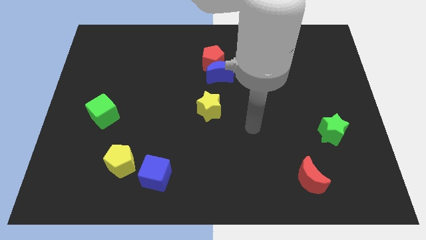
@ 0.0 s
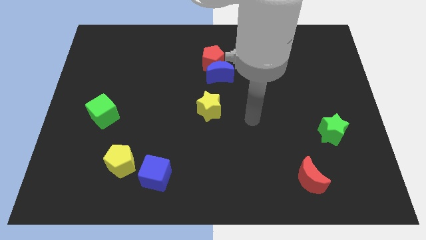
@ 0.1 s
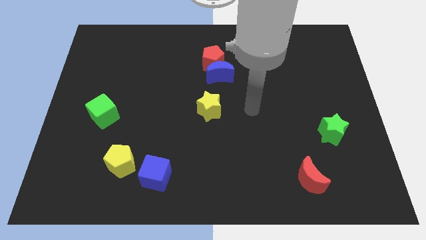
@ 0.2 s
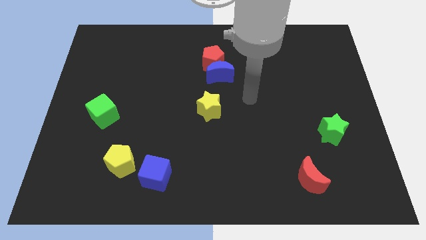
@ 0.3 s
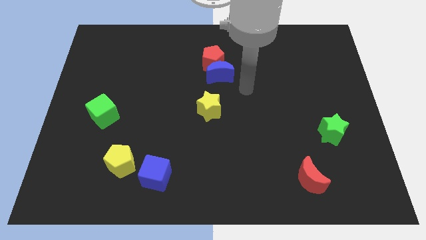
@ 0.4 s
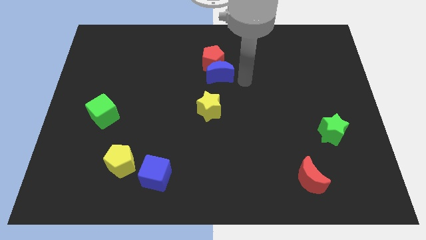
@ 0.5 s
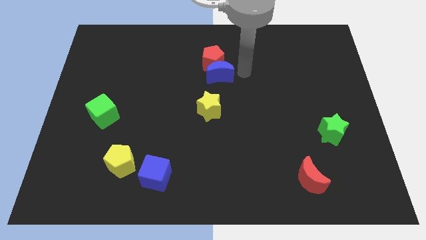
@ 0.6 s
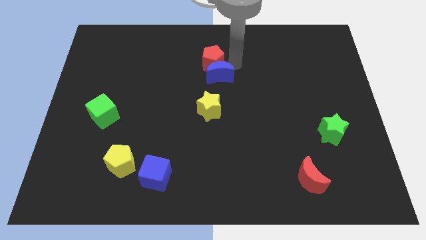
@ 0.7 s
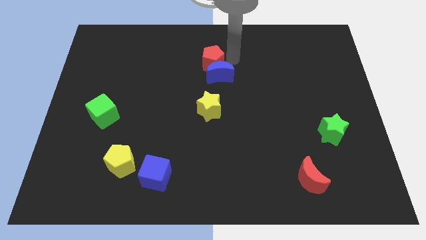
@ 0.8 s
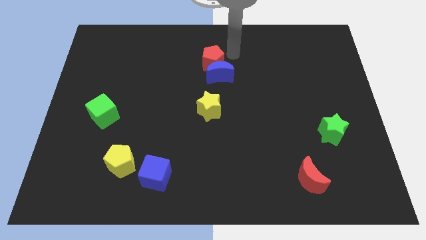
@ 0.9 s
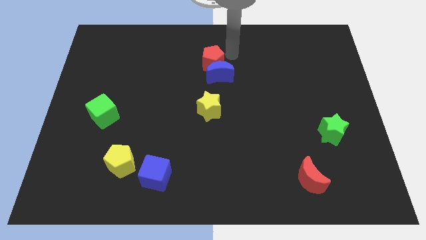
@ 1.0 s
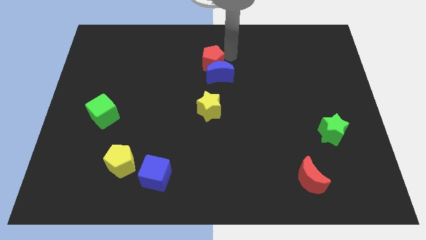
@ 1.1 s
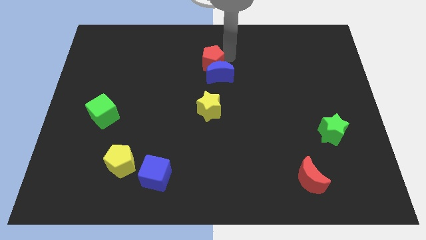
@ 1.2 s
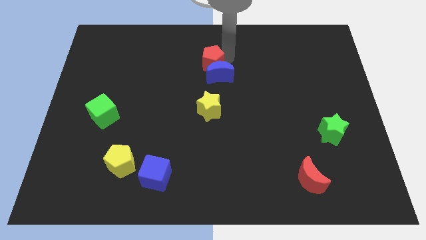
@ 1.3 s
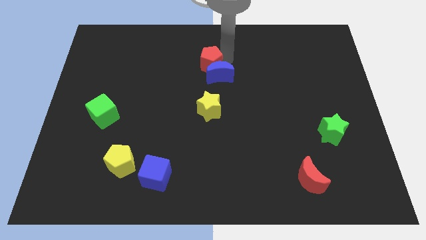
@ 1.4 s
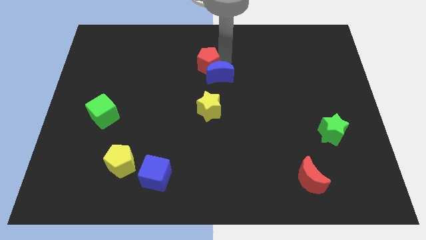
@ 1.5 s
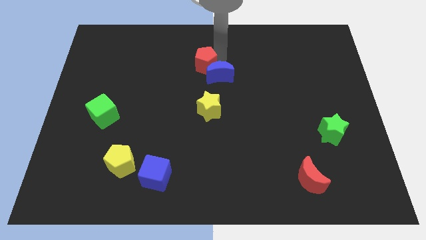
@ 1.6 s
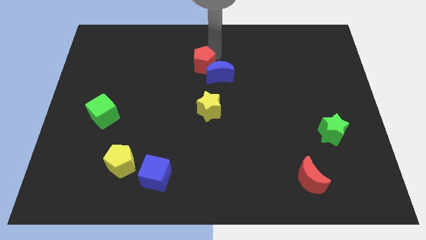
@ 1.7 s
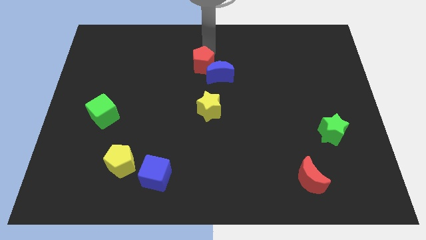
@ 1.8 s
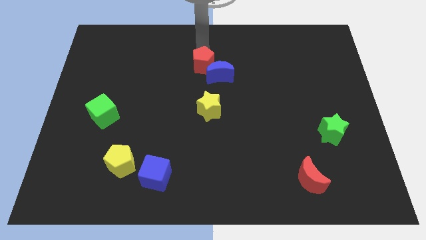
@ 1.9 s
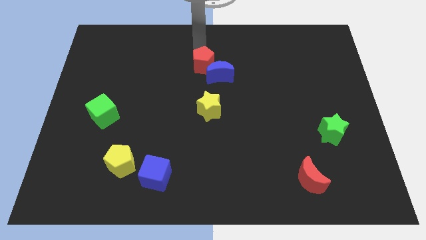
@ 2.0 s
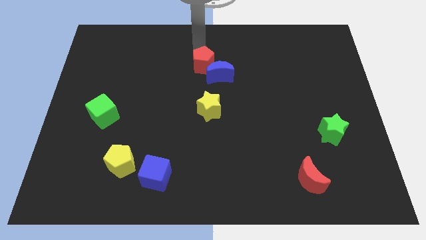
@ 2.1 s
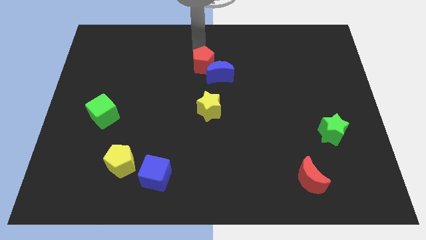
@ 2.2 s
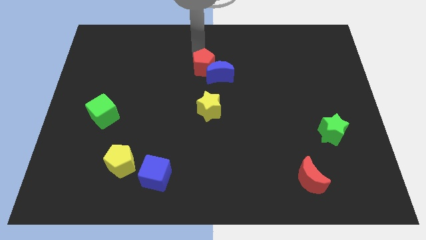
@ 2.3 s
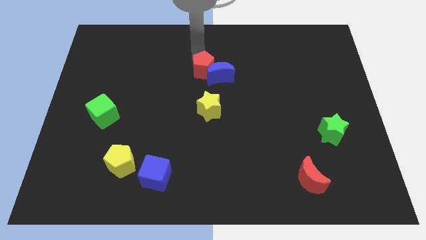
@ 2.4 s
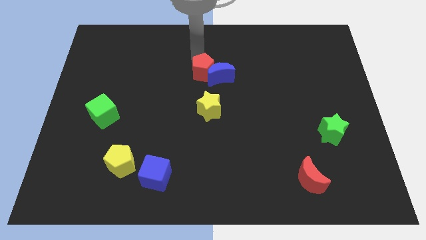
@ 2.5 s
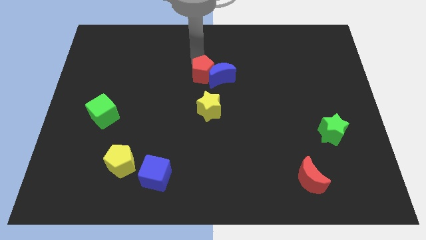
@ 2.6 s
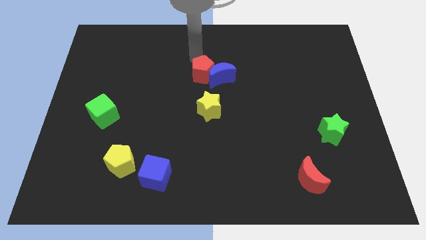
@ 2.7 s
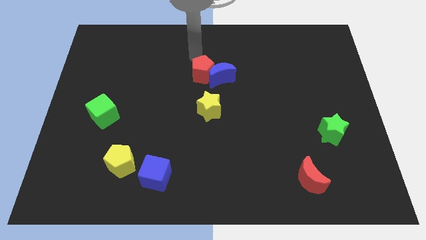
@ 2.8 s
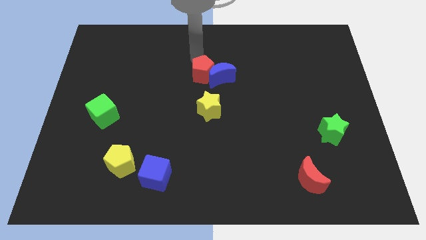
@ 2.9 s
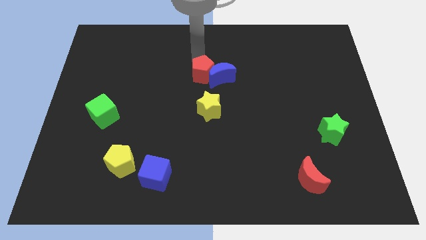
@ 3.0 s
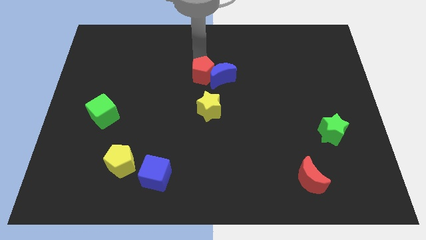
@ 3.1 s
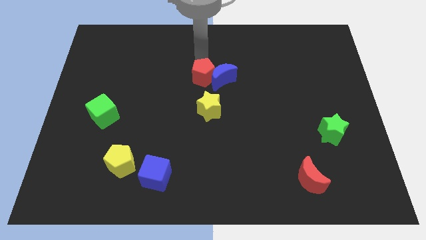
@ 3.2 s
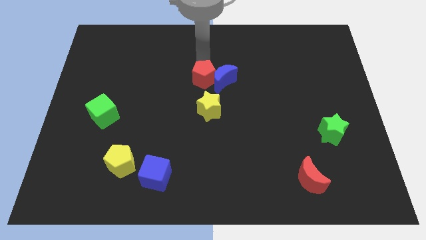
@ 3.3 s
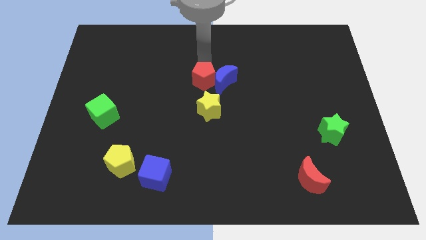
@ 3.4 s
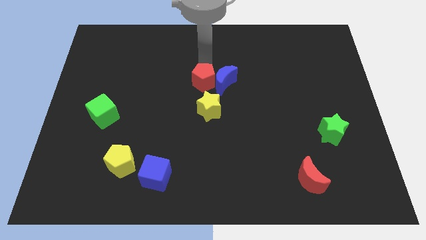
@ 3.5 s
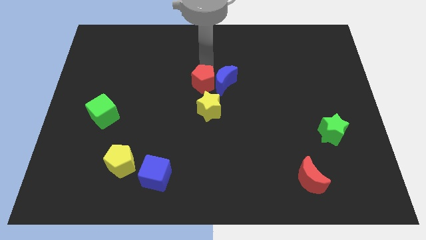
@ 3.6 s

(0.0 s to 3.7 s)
move the red pentagon downwards a bit

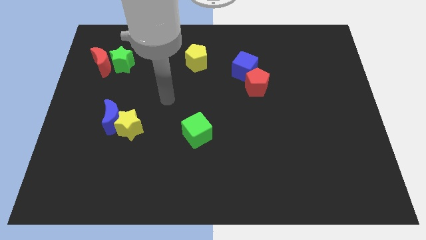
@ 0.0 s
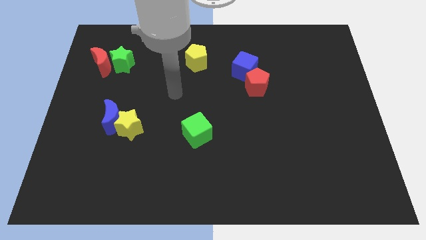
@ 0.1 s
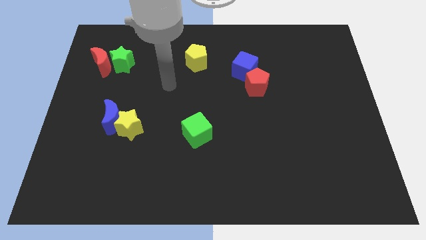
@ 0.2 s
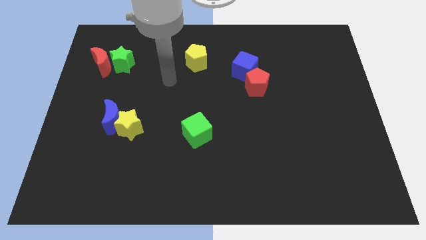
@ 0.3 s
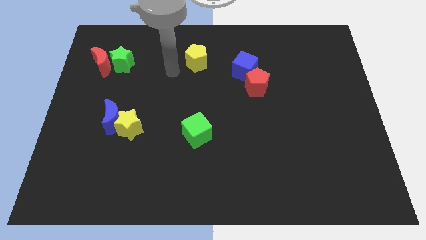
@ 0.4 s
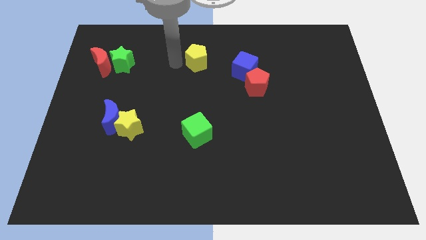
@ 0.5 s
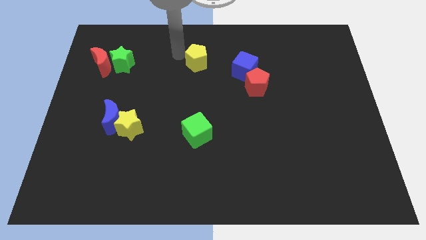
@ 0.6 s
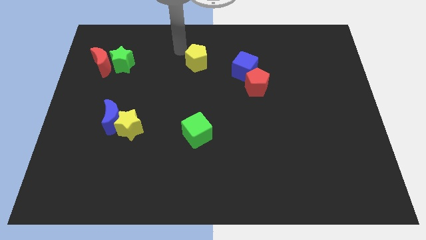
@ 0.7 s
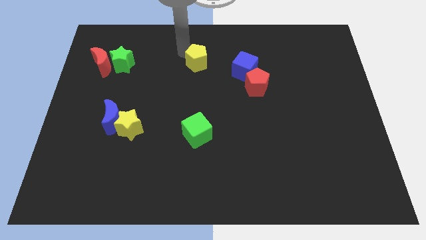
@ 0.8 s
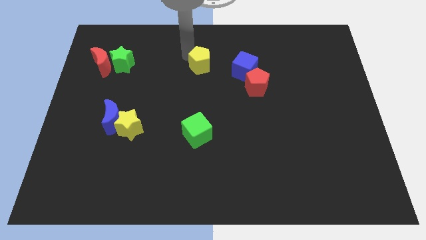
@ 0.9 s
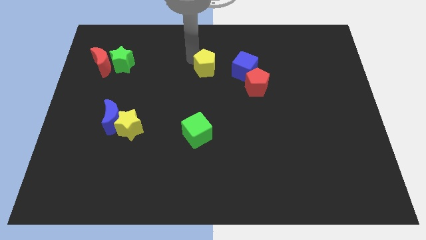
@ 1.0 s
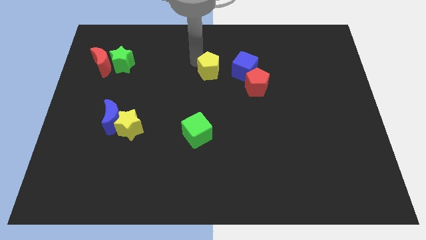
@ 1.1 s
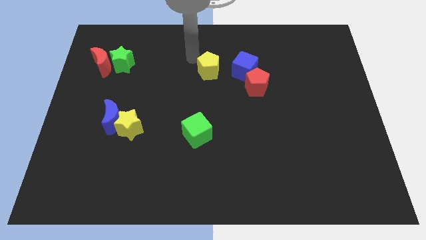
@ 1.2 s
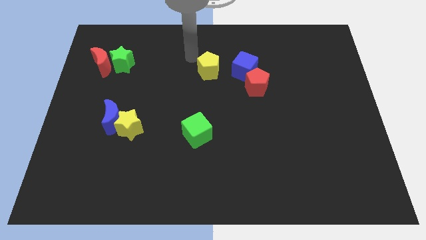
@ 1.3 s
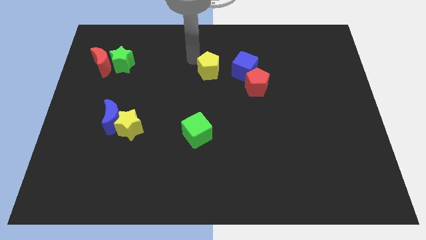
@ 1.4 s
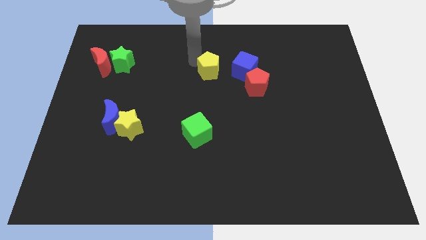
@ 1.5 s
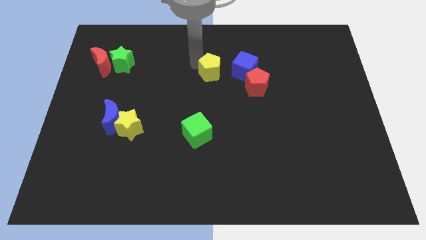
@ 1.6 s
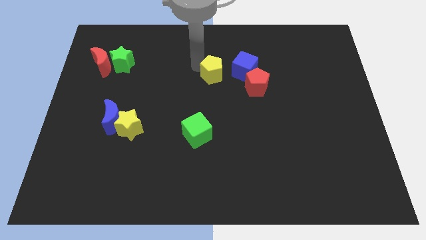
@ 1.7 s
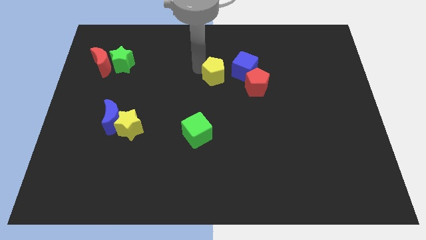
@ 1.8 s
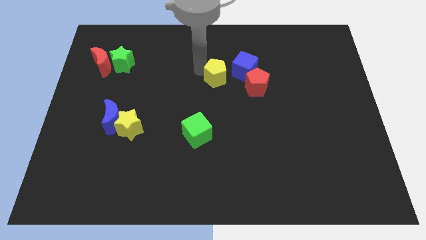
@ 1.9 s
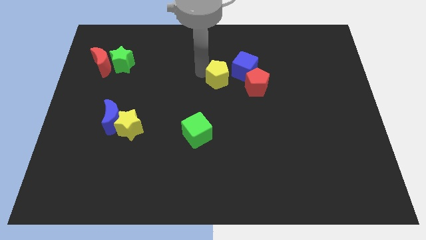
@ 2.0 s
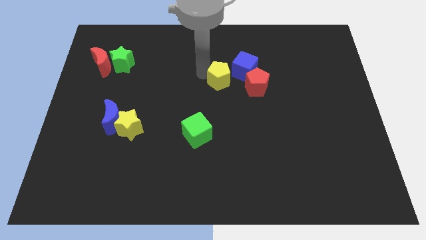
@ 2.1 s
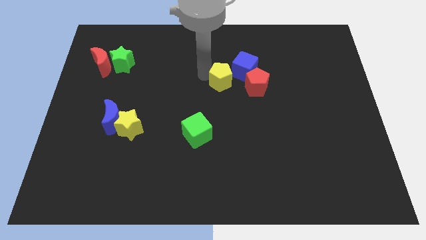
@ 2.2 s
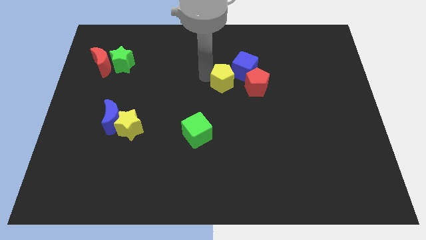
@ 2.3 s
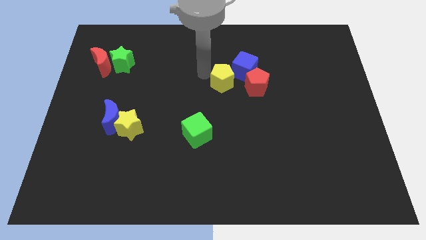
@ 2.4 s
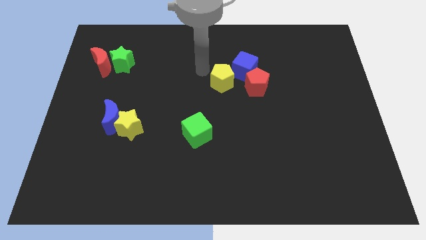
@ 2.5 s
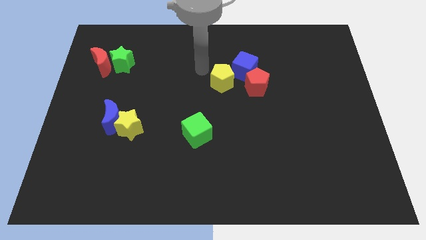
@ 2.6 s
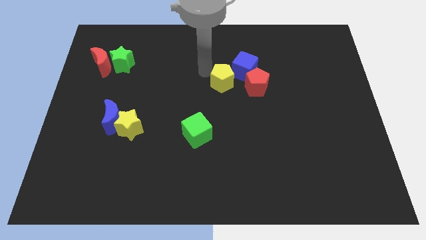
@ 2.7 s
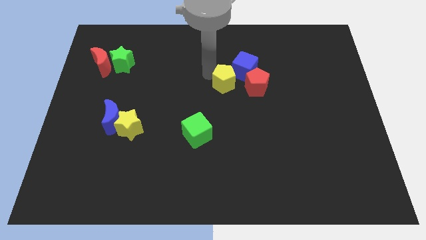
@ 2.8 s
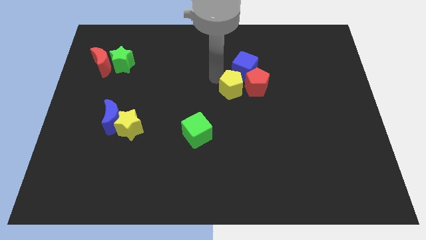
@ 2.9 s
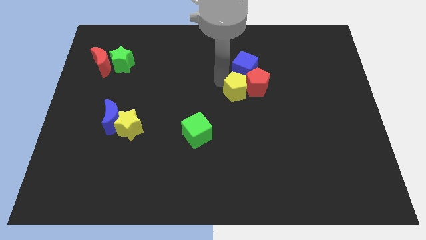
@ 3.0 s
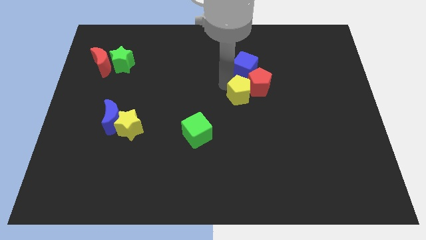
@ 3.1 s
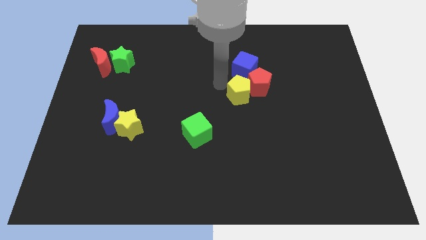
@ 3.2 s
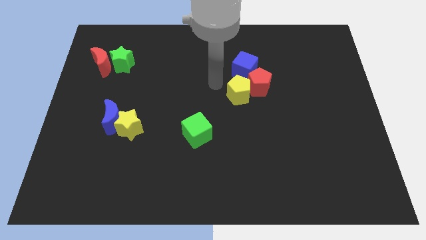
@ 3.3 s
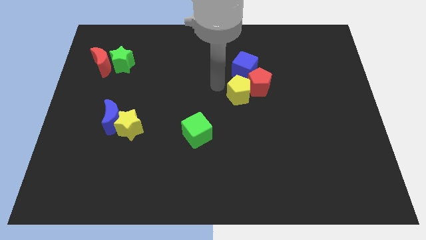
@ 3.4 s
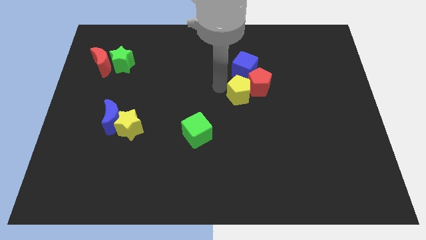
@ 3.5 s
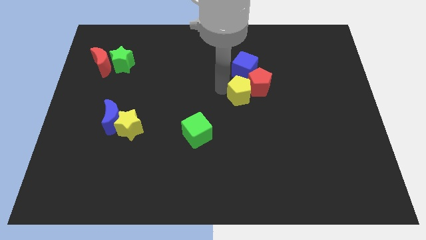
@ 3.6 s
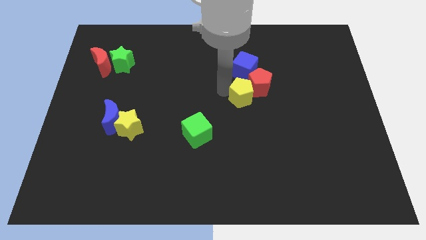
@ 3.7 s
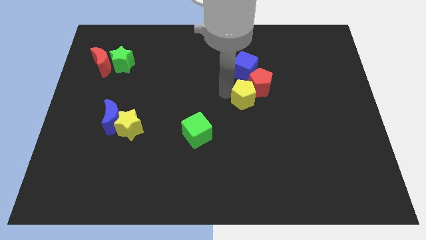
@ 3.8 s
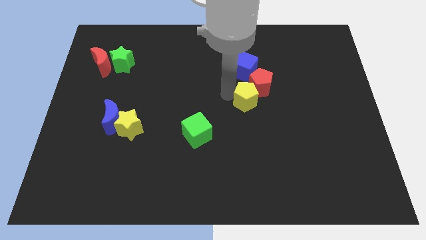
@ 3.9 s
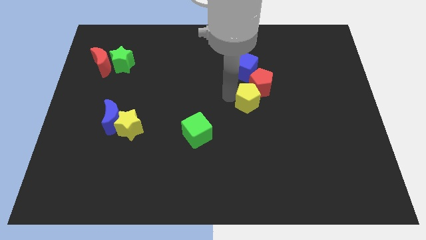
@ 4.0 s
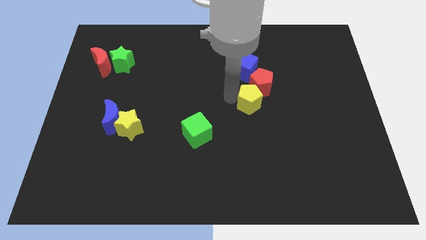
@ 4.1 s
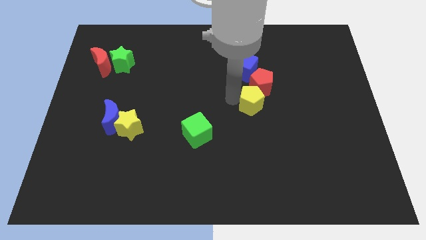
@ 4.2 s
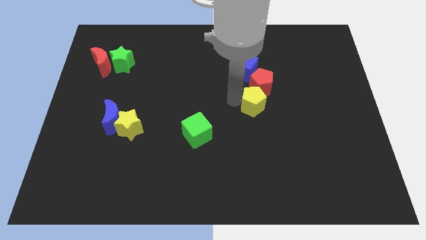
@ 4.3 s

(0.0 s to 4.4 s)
slide the yellow pentagon downwards and then right

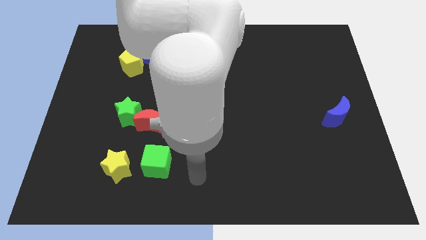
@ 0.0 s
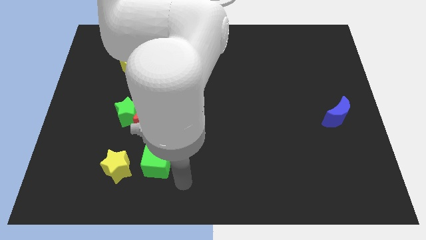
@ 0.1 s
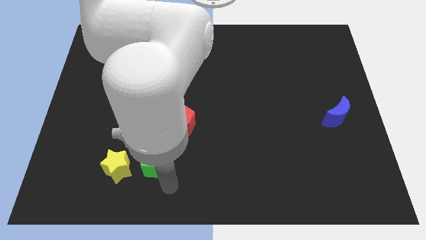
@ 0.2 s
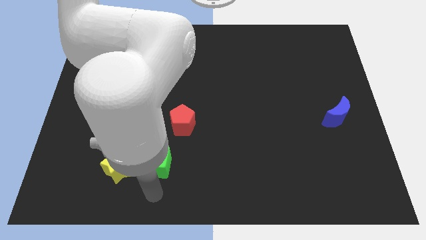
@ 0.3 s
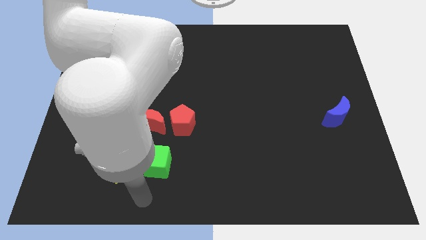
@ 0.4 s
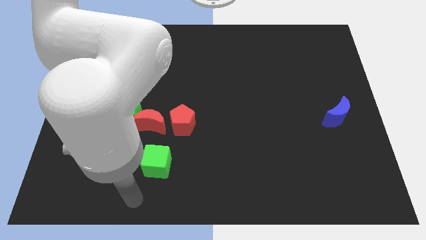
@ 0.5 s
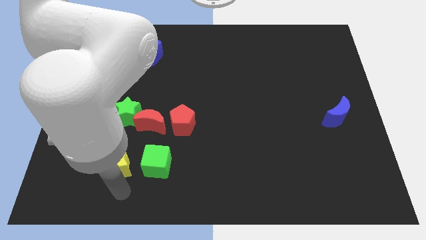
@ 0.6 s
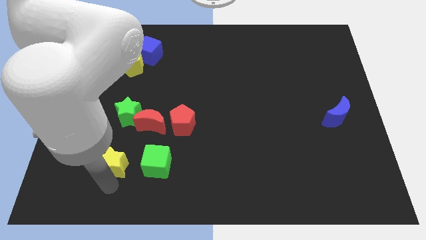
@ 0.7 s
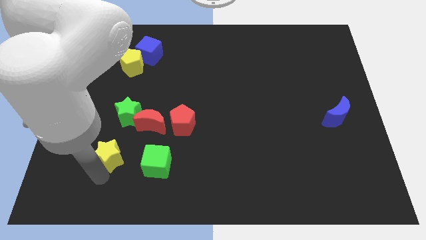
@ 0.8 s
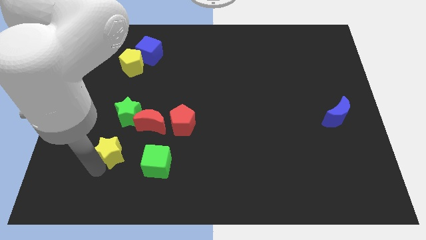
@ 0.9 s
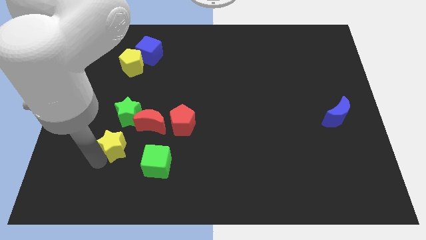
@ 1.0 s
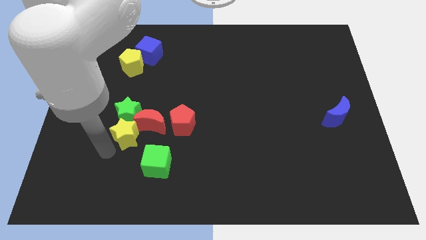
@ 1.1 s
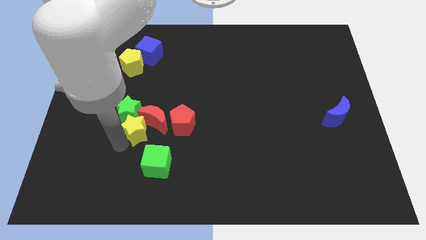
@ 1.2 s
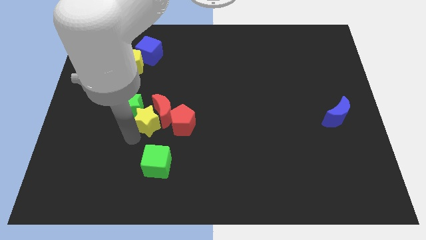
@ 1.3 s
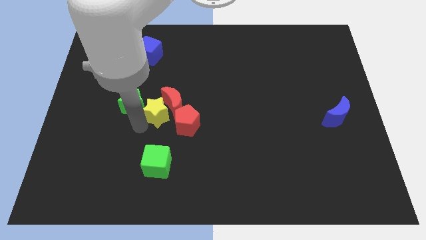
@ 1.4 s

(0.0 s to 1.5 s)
slide the red moon up and right diagonally a little
